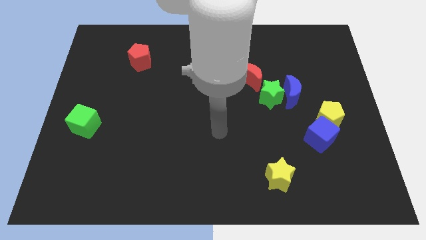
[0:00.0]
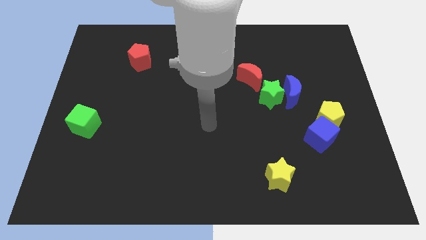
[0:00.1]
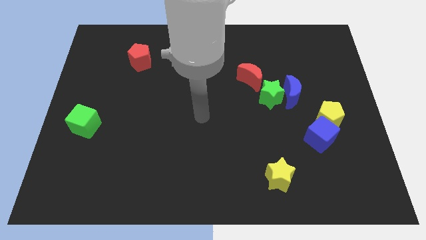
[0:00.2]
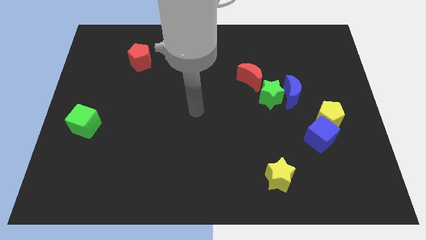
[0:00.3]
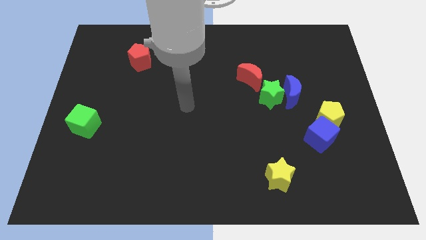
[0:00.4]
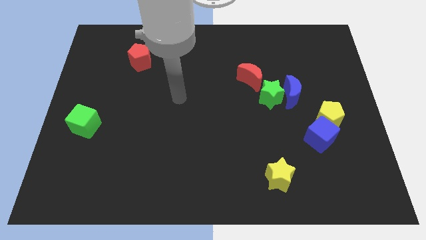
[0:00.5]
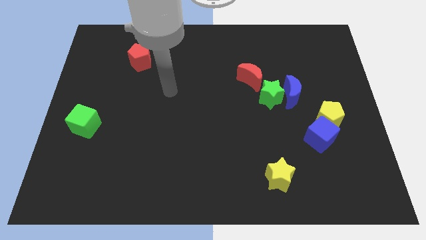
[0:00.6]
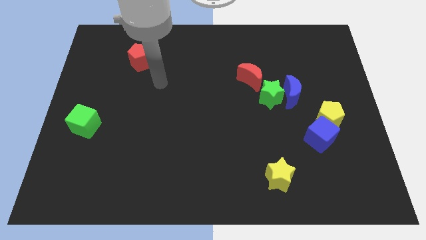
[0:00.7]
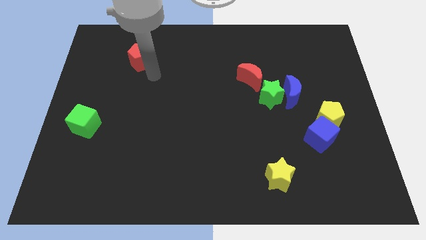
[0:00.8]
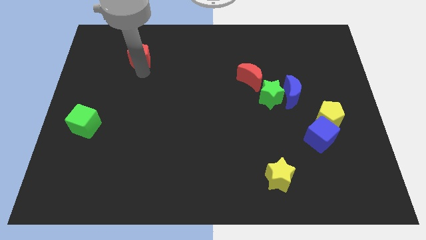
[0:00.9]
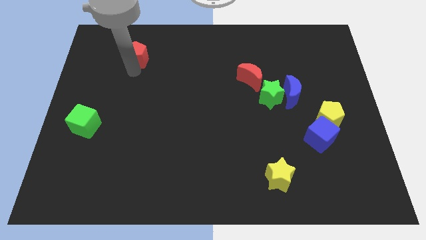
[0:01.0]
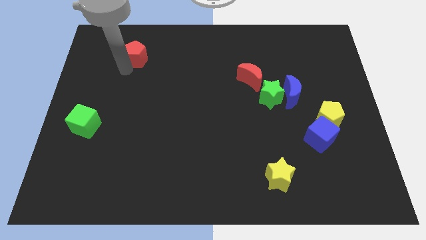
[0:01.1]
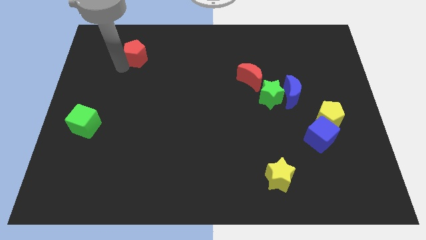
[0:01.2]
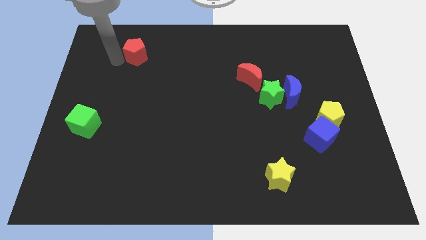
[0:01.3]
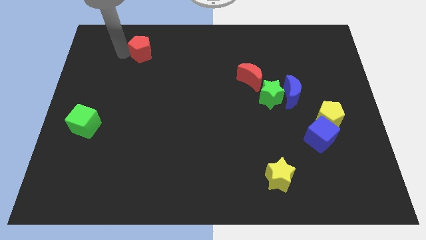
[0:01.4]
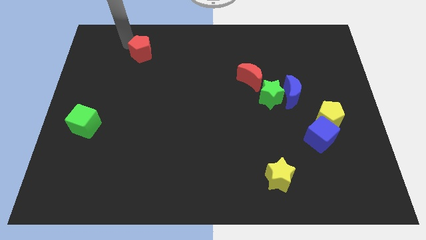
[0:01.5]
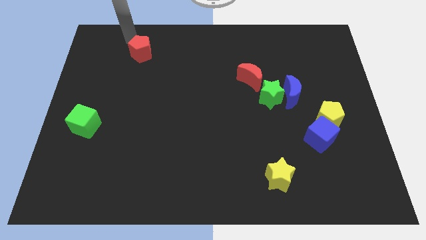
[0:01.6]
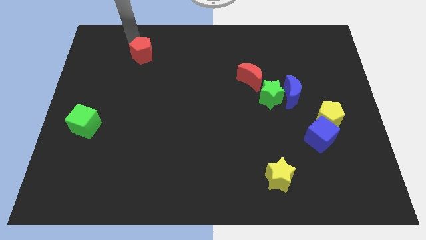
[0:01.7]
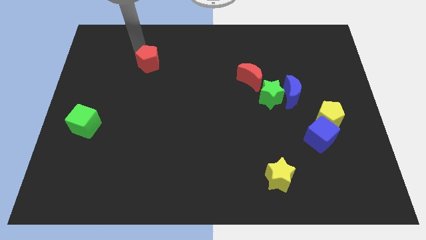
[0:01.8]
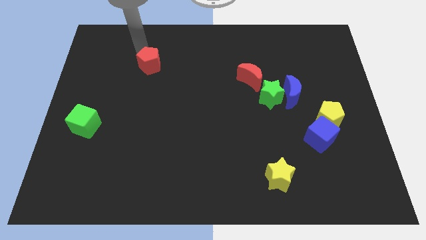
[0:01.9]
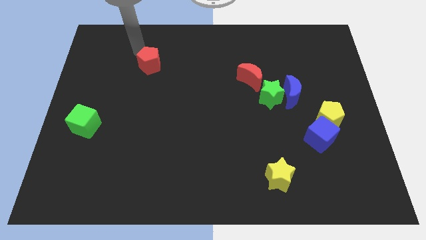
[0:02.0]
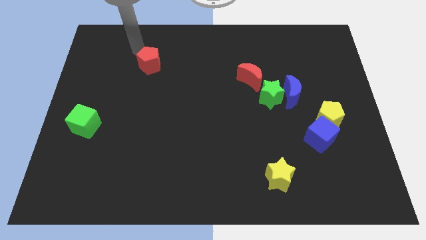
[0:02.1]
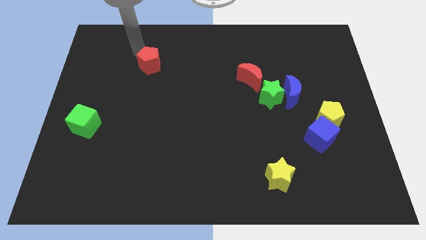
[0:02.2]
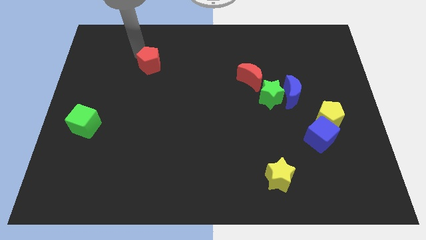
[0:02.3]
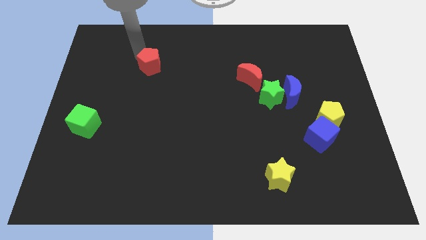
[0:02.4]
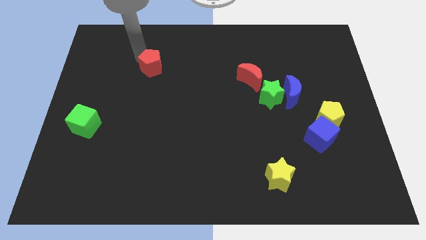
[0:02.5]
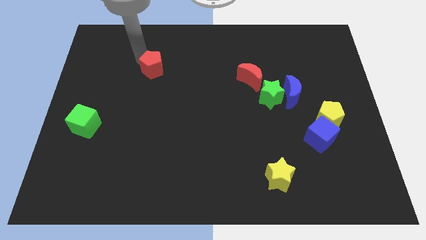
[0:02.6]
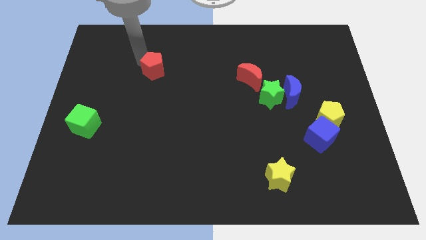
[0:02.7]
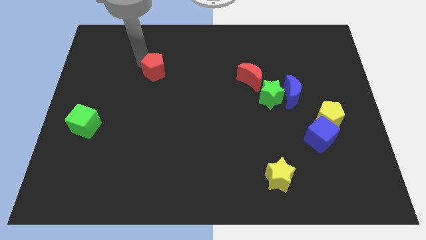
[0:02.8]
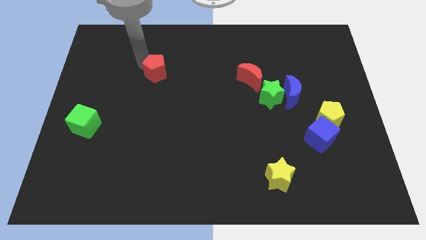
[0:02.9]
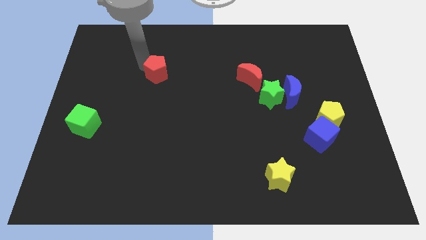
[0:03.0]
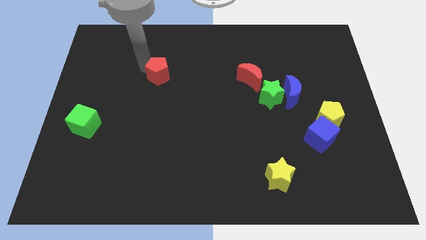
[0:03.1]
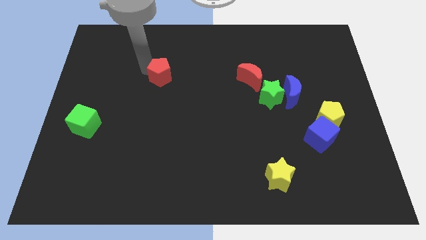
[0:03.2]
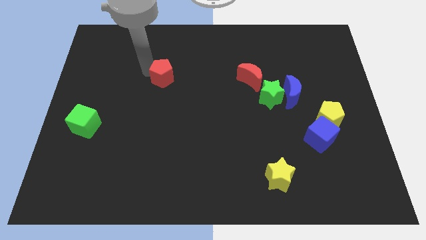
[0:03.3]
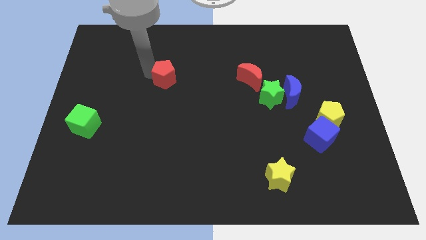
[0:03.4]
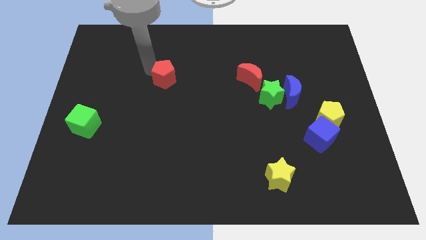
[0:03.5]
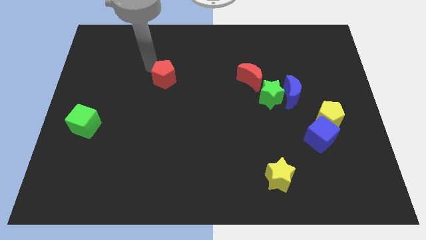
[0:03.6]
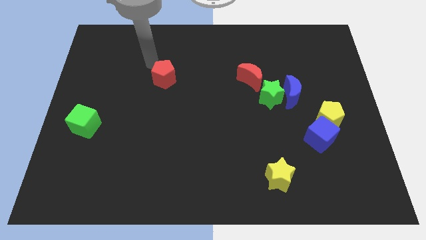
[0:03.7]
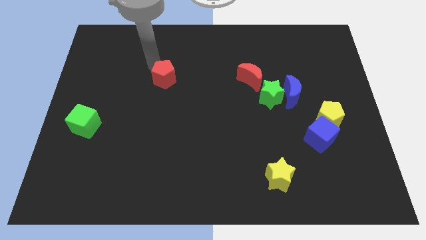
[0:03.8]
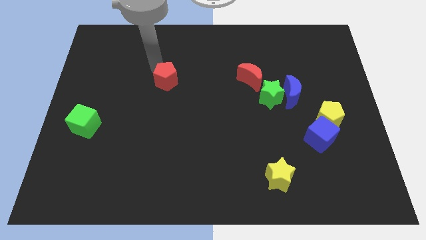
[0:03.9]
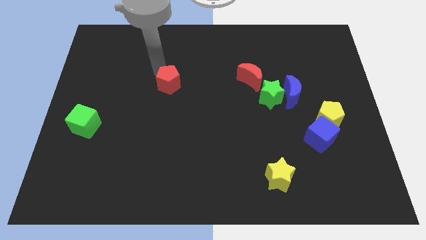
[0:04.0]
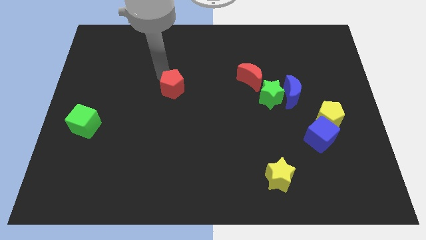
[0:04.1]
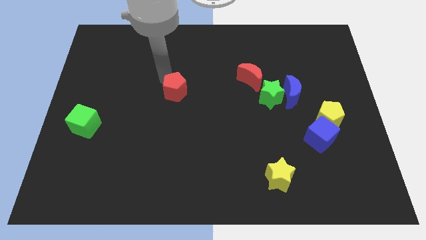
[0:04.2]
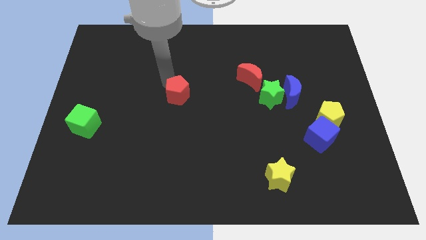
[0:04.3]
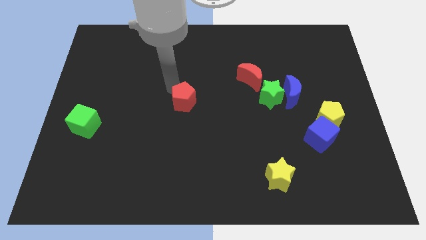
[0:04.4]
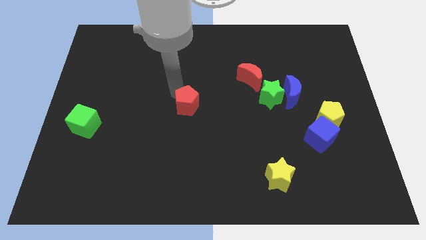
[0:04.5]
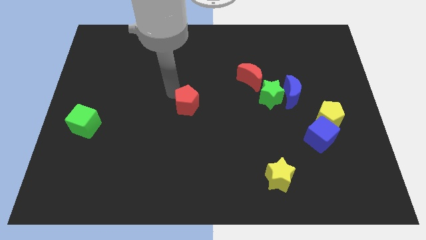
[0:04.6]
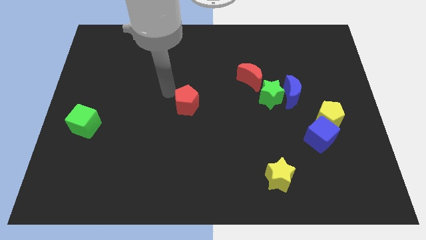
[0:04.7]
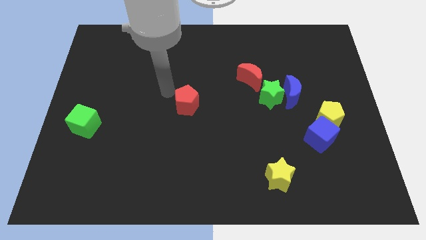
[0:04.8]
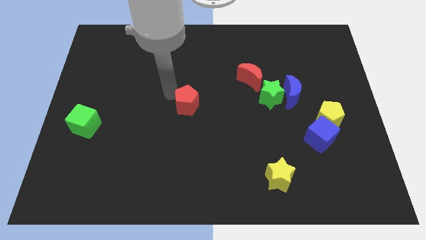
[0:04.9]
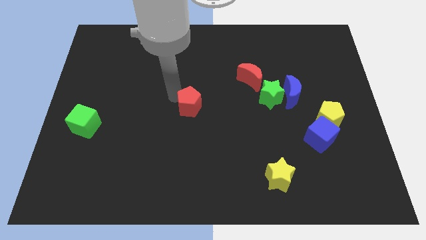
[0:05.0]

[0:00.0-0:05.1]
move the red pentagon diagonally downwards and to the right

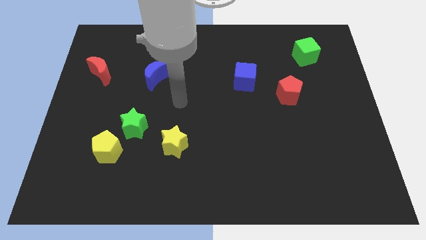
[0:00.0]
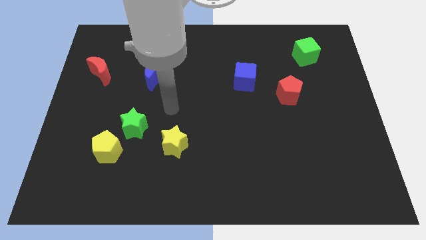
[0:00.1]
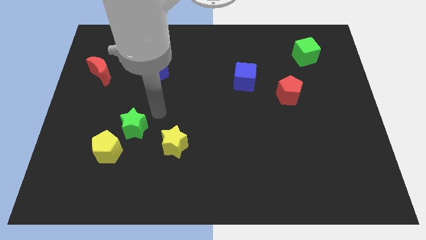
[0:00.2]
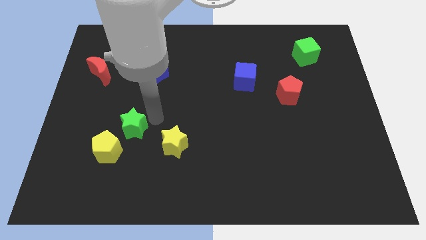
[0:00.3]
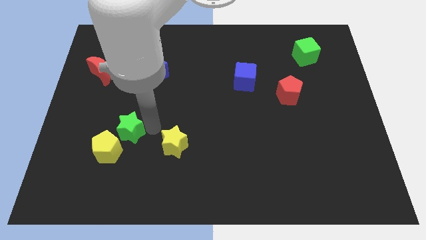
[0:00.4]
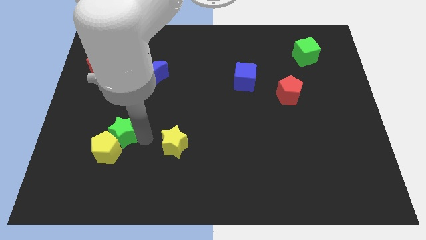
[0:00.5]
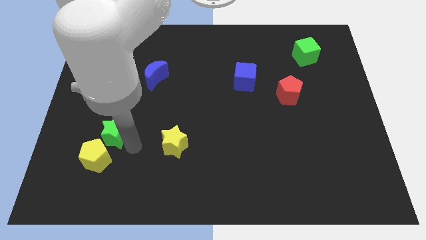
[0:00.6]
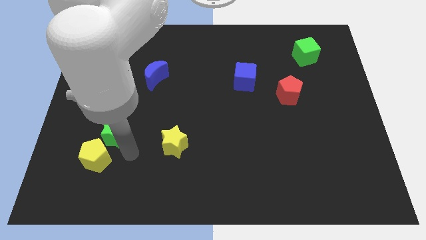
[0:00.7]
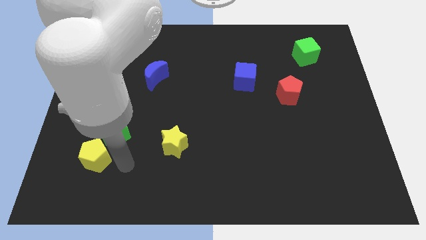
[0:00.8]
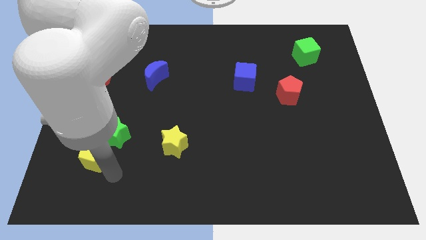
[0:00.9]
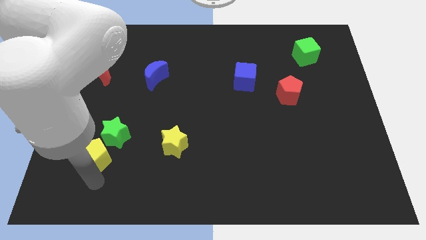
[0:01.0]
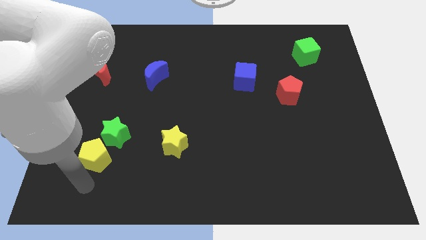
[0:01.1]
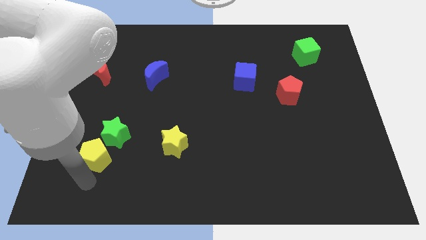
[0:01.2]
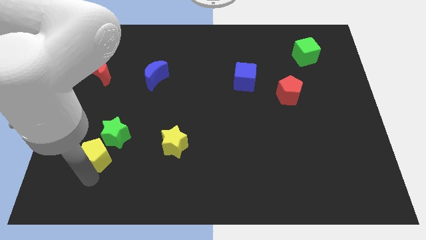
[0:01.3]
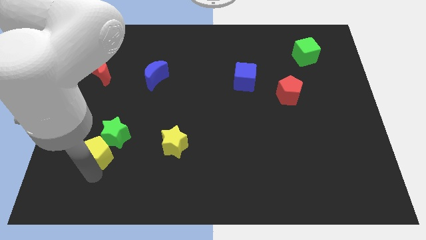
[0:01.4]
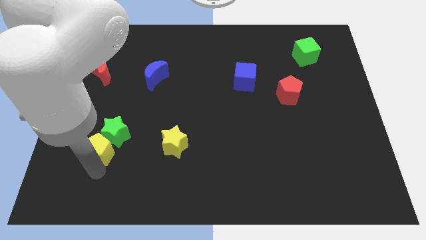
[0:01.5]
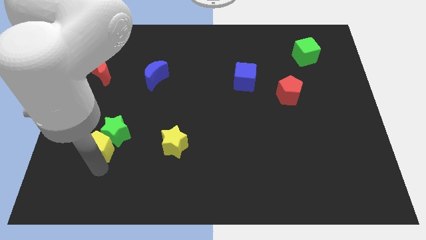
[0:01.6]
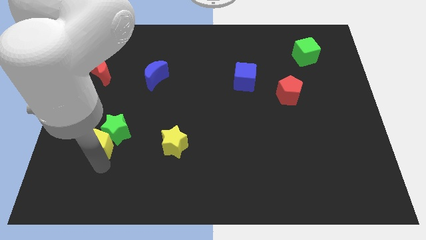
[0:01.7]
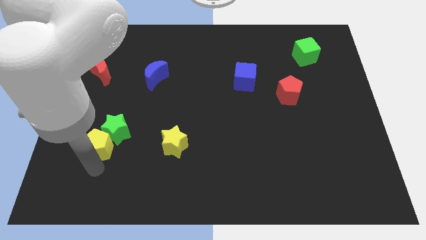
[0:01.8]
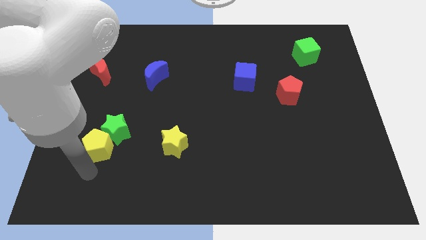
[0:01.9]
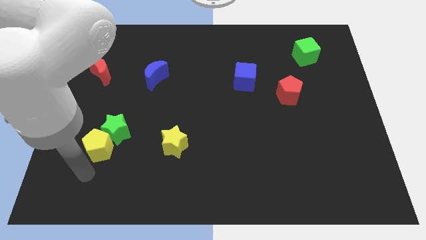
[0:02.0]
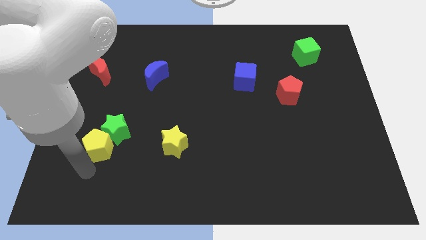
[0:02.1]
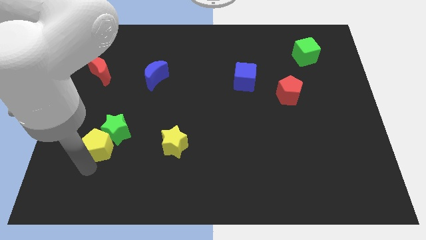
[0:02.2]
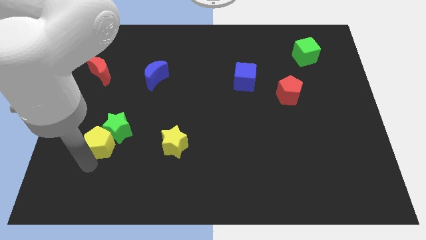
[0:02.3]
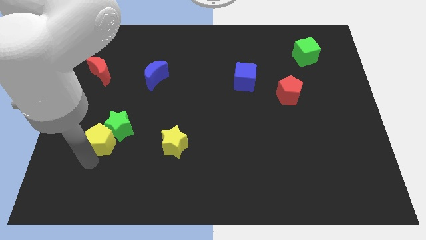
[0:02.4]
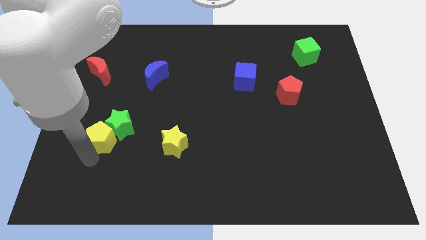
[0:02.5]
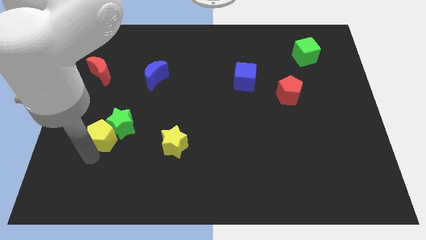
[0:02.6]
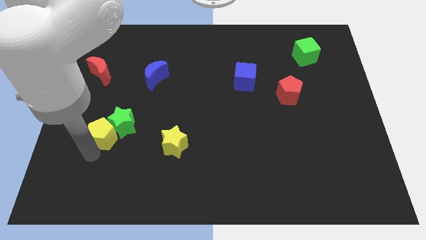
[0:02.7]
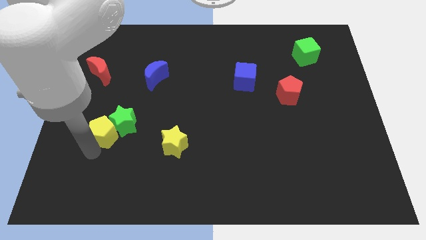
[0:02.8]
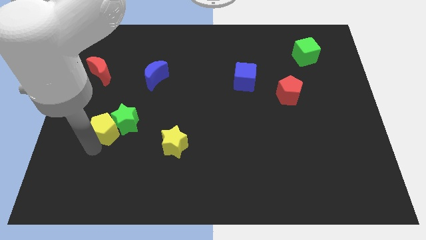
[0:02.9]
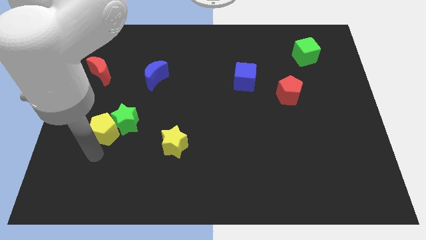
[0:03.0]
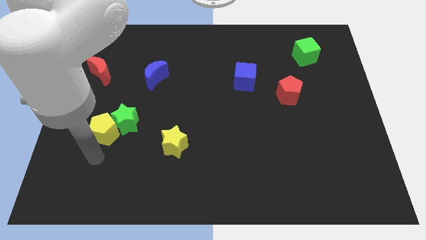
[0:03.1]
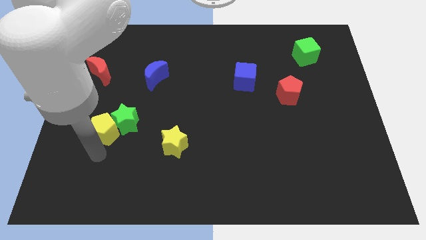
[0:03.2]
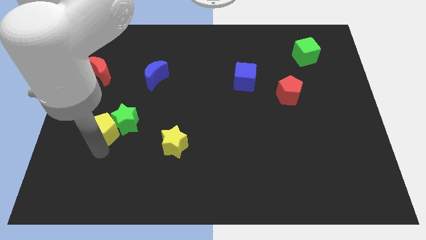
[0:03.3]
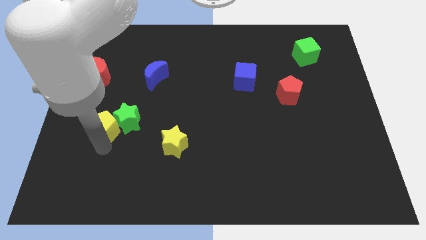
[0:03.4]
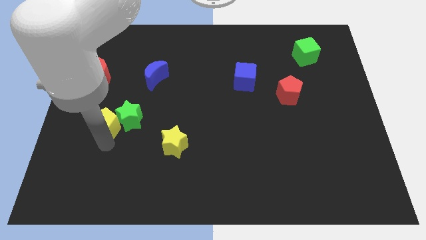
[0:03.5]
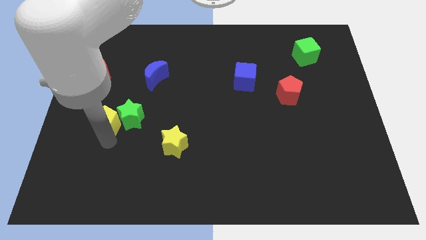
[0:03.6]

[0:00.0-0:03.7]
move the yellow pentagon up a little
